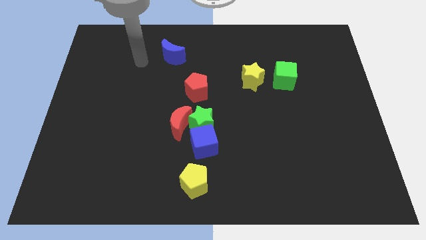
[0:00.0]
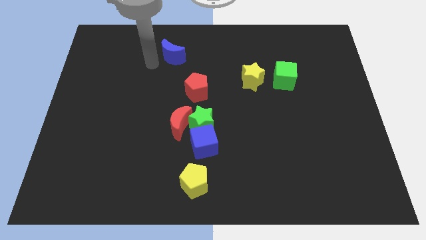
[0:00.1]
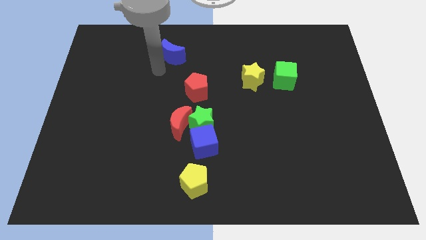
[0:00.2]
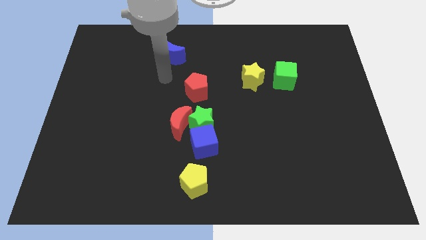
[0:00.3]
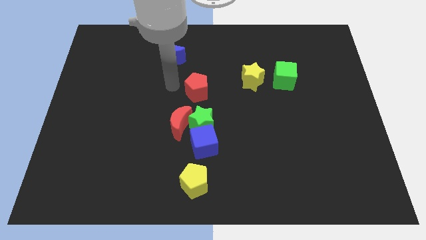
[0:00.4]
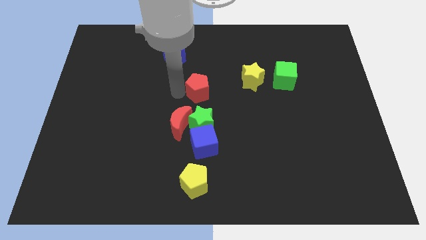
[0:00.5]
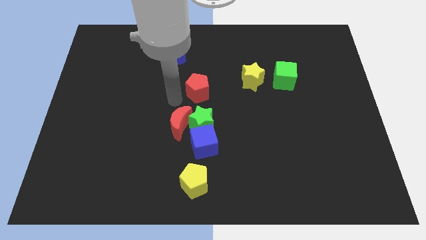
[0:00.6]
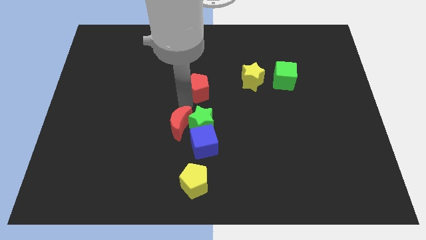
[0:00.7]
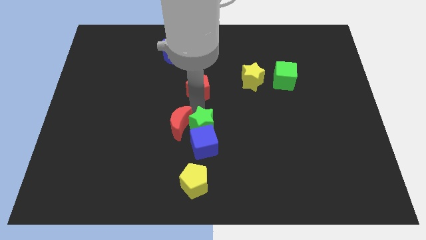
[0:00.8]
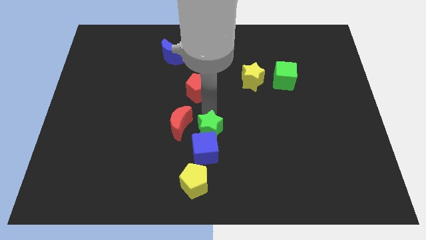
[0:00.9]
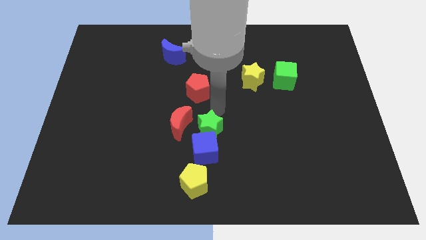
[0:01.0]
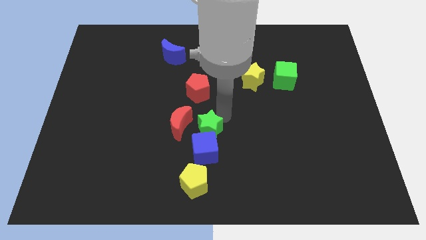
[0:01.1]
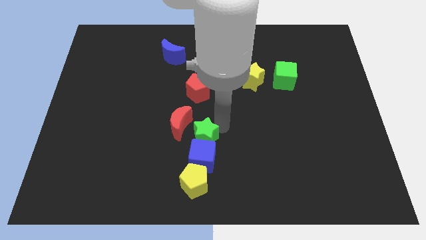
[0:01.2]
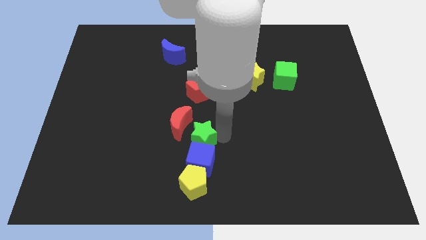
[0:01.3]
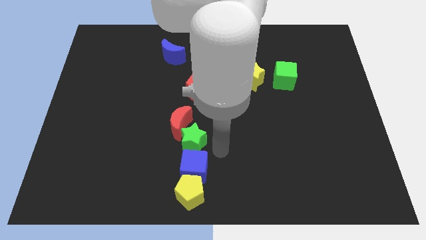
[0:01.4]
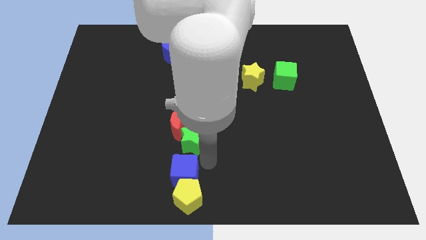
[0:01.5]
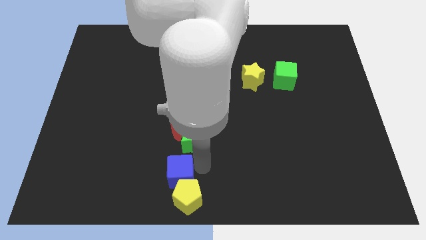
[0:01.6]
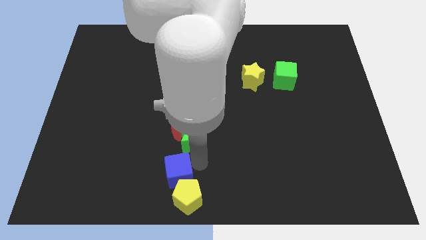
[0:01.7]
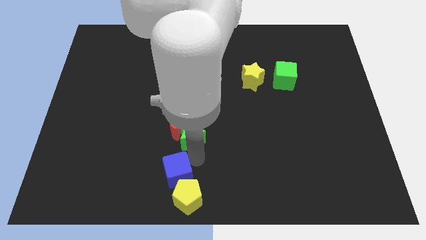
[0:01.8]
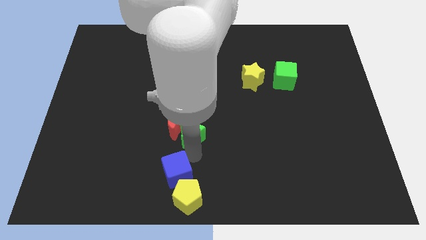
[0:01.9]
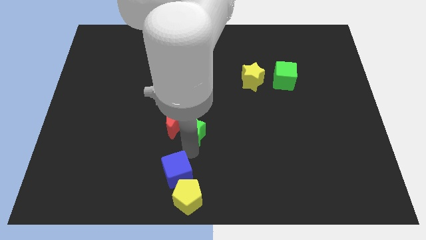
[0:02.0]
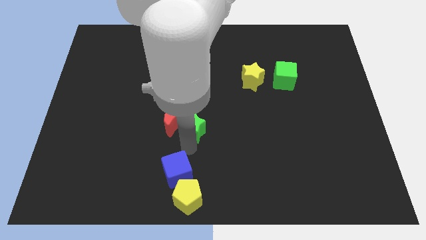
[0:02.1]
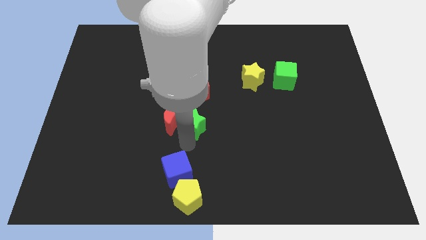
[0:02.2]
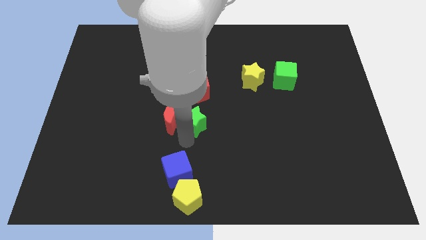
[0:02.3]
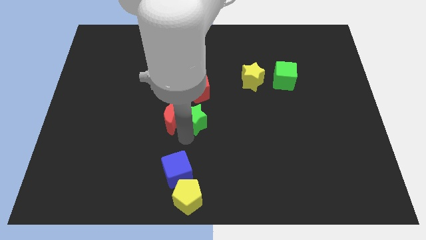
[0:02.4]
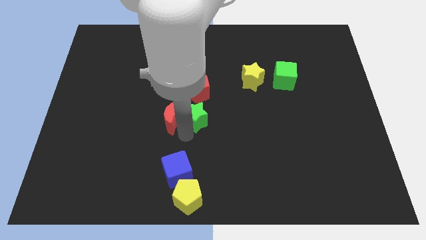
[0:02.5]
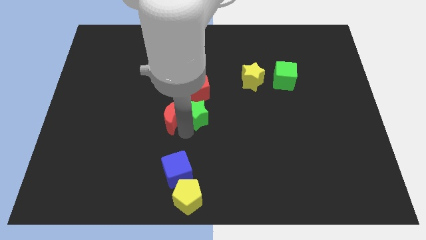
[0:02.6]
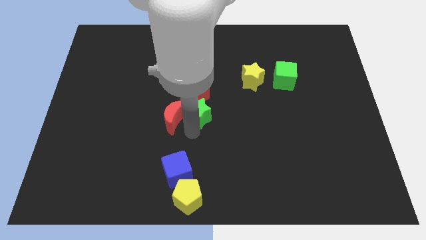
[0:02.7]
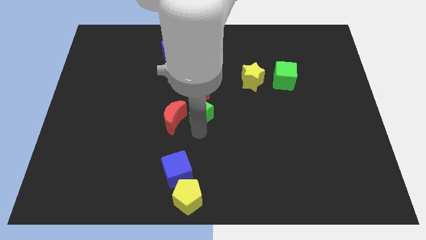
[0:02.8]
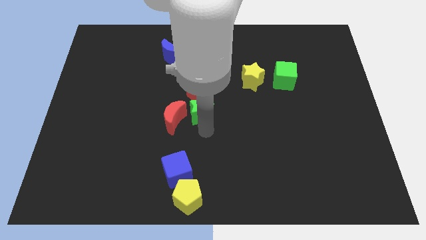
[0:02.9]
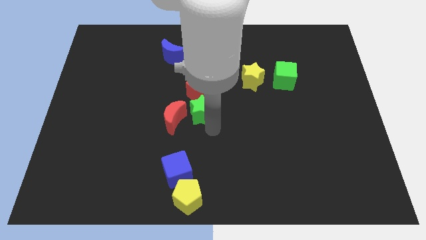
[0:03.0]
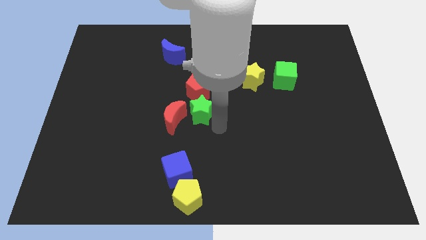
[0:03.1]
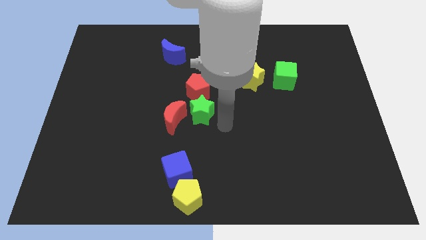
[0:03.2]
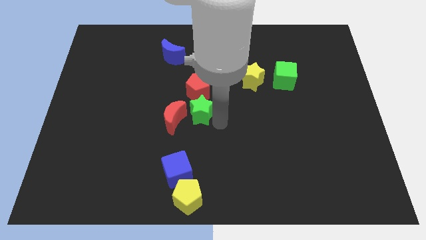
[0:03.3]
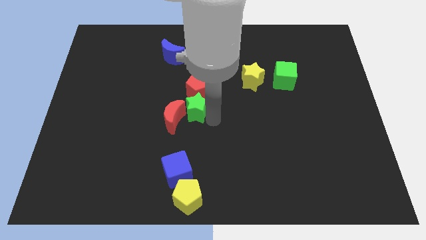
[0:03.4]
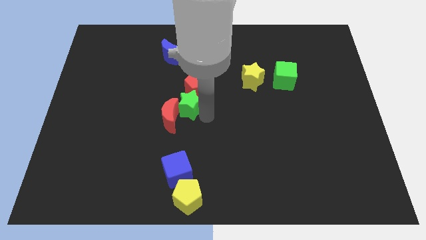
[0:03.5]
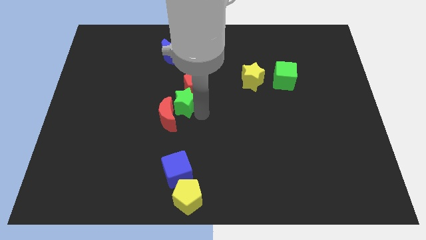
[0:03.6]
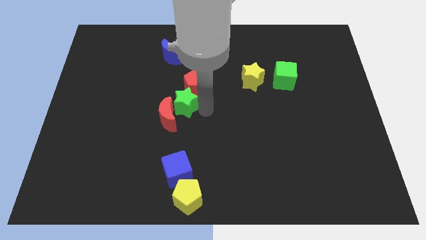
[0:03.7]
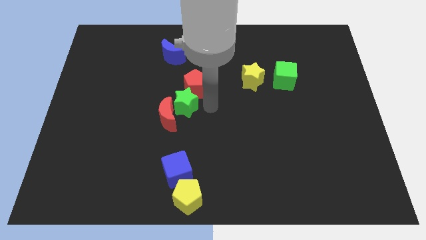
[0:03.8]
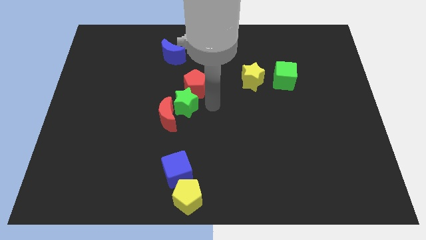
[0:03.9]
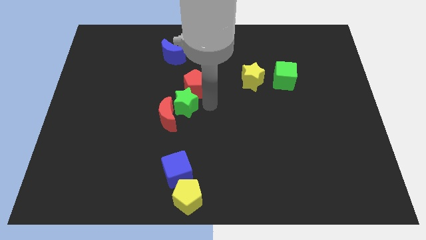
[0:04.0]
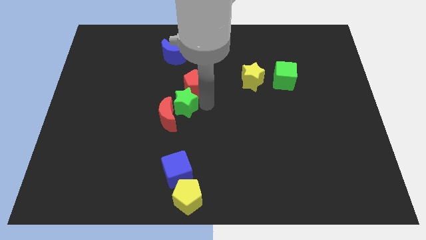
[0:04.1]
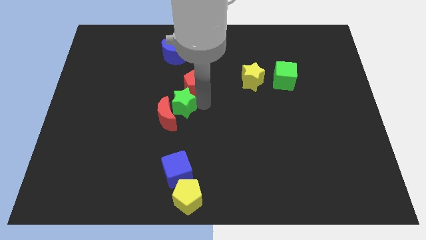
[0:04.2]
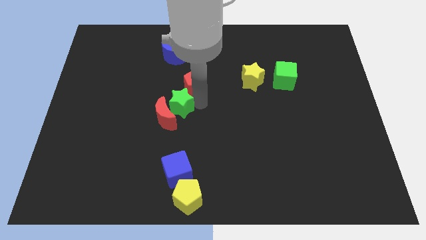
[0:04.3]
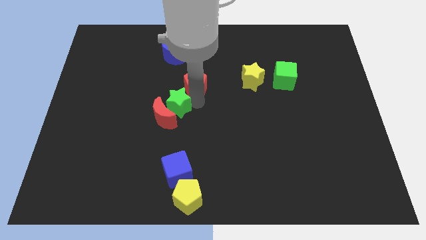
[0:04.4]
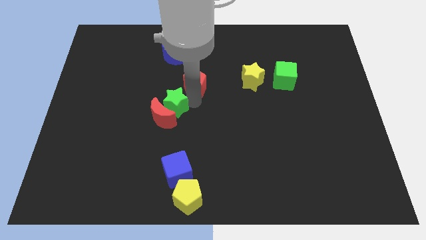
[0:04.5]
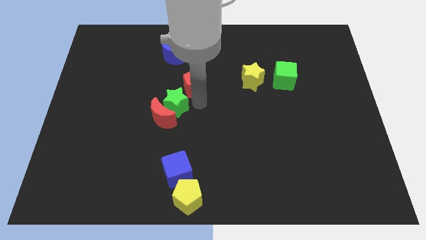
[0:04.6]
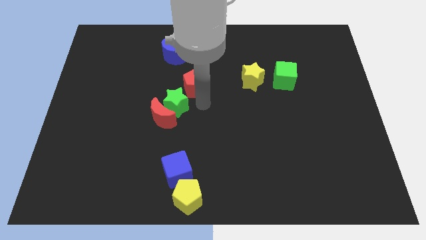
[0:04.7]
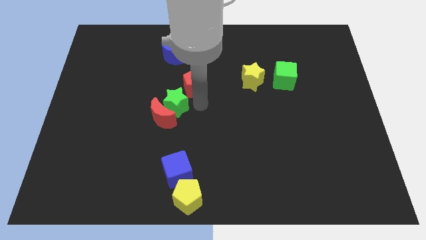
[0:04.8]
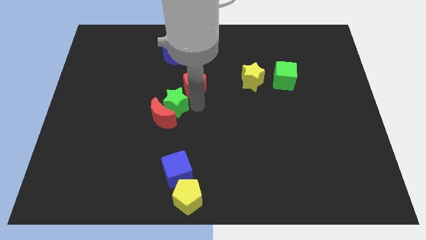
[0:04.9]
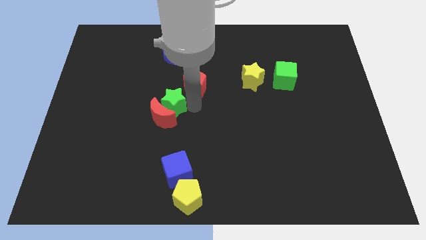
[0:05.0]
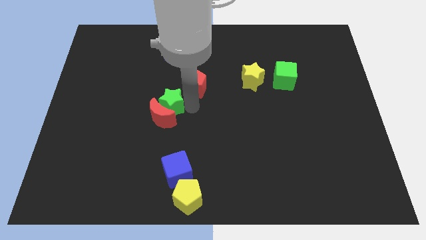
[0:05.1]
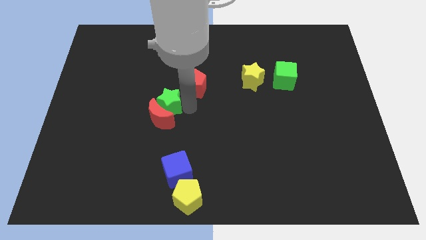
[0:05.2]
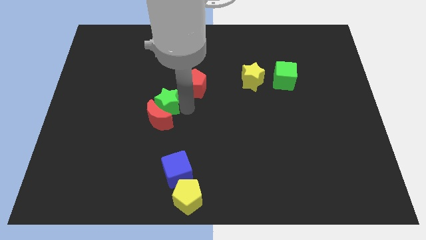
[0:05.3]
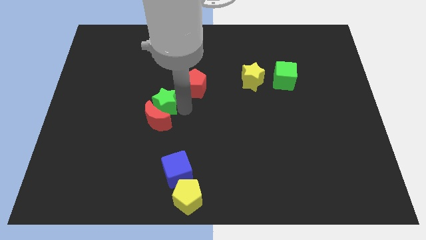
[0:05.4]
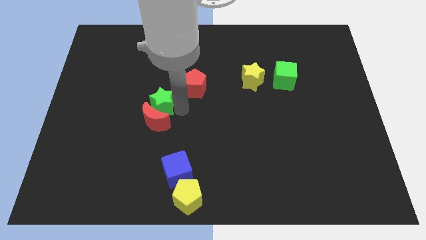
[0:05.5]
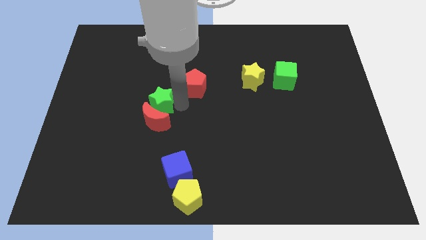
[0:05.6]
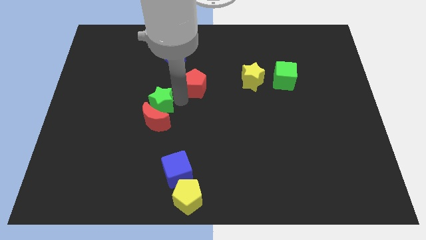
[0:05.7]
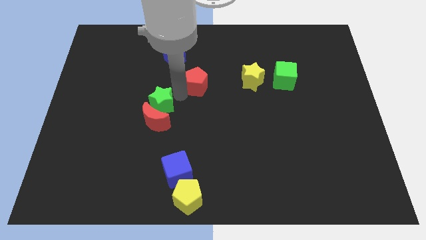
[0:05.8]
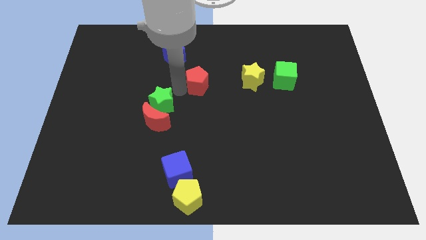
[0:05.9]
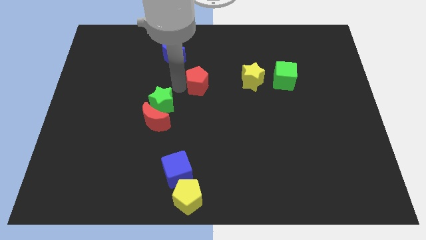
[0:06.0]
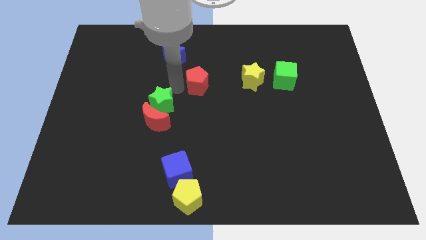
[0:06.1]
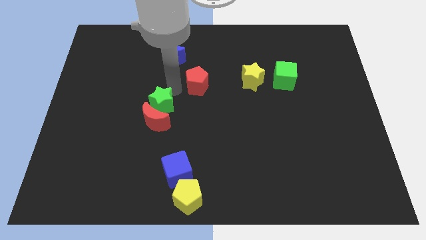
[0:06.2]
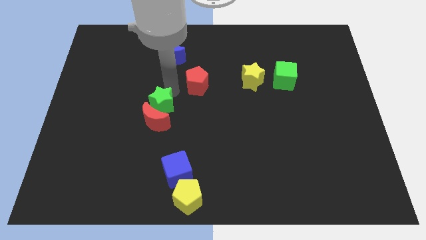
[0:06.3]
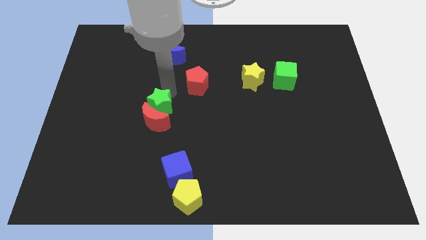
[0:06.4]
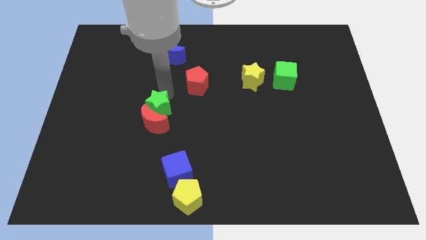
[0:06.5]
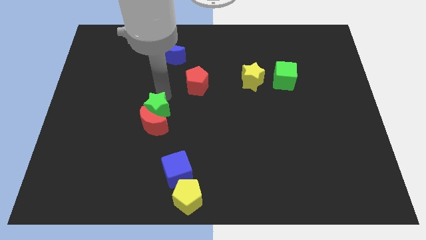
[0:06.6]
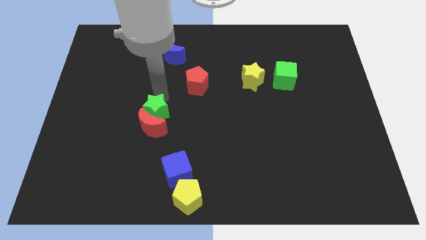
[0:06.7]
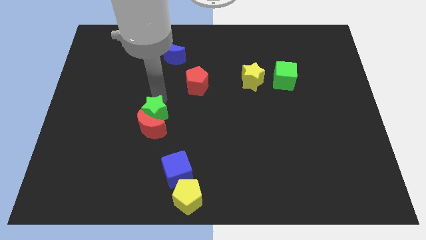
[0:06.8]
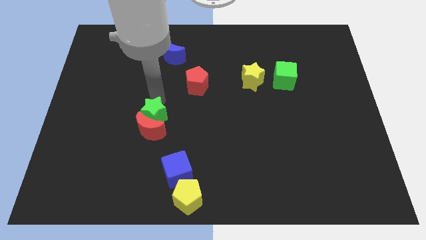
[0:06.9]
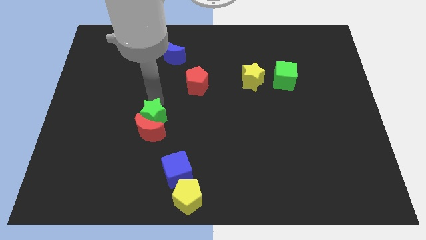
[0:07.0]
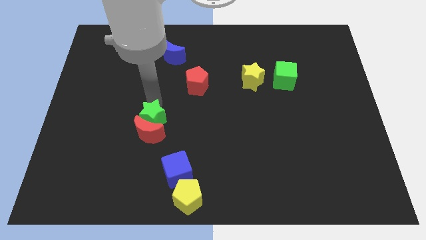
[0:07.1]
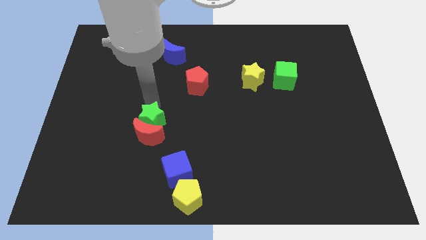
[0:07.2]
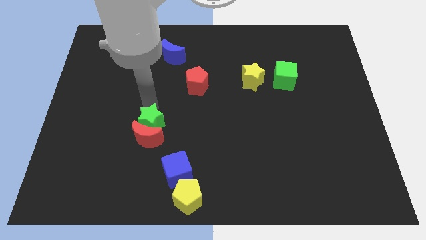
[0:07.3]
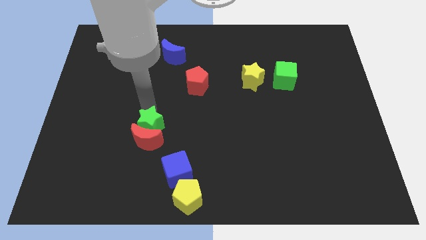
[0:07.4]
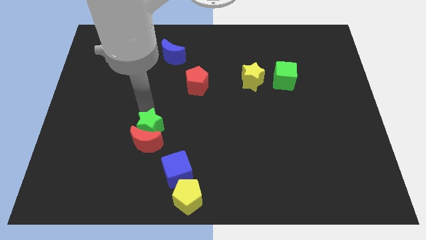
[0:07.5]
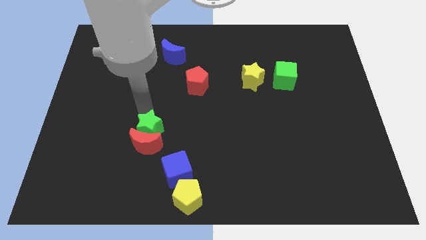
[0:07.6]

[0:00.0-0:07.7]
slide the green star down and then to the left somewhat

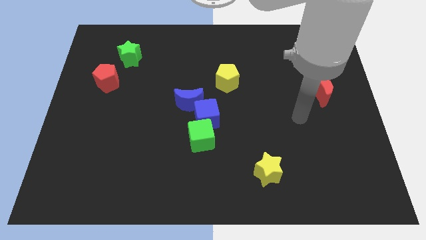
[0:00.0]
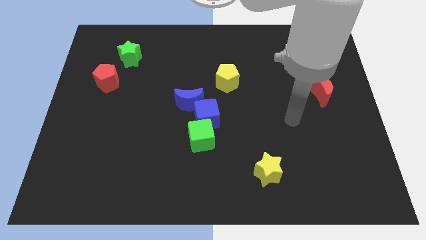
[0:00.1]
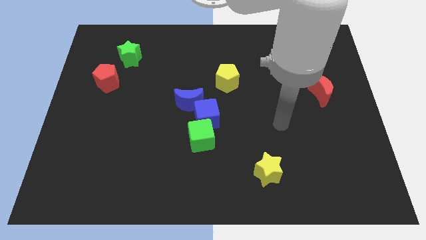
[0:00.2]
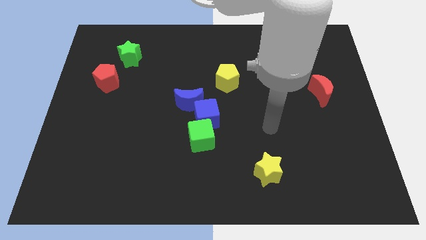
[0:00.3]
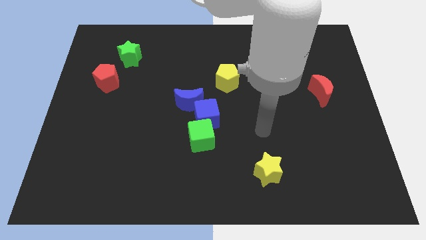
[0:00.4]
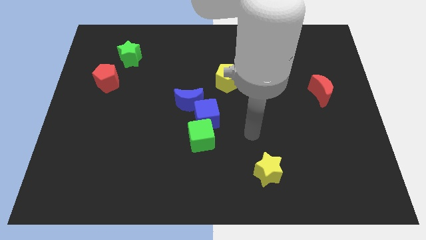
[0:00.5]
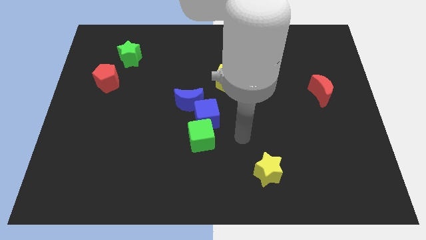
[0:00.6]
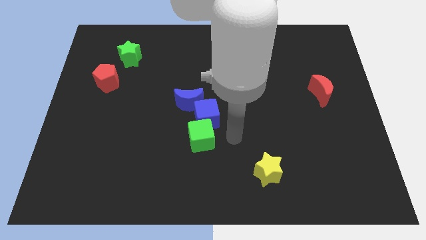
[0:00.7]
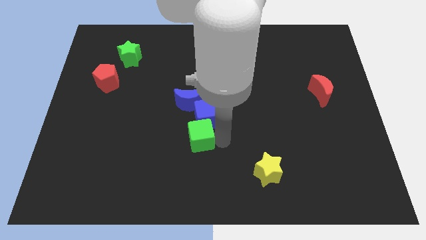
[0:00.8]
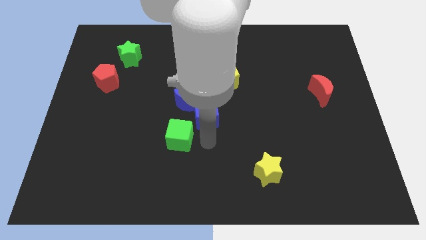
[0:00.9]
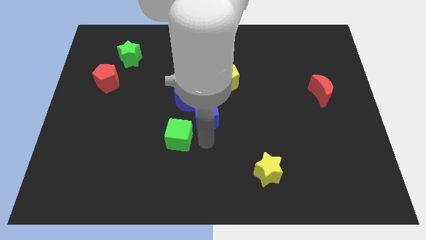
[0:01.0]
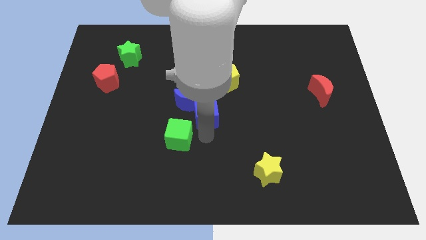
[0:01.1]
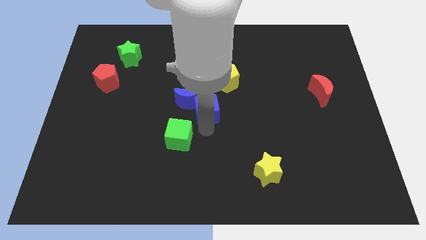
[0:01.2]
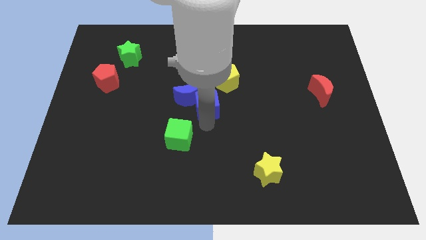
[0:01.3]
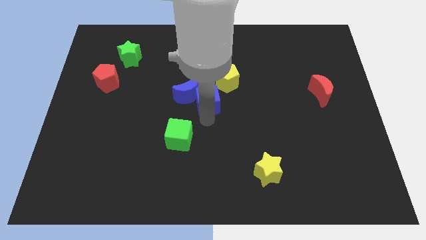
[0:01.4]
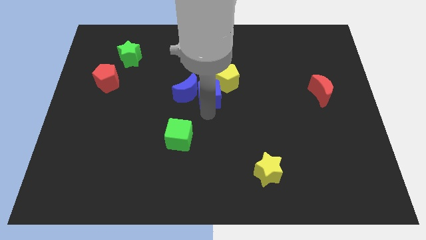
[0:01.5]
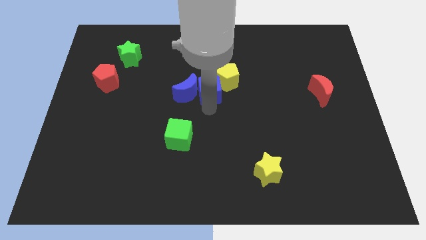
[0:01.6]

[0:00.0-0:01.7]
slightly move the blue cube up
